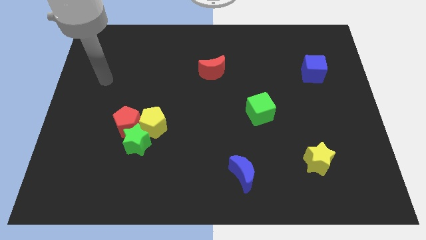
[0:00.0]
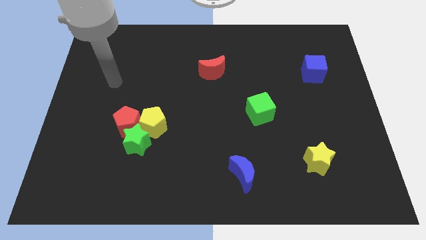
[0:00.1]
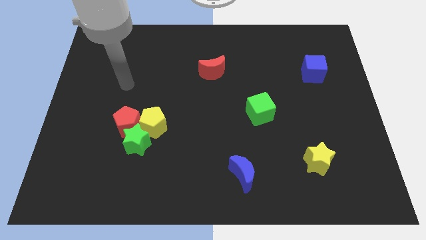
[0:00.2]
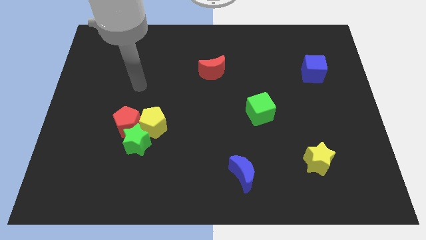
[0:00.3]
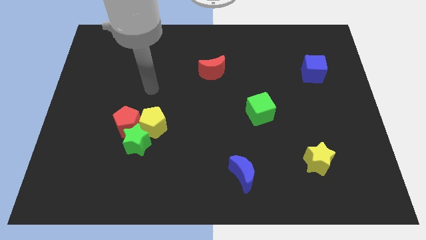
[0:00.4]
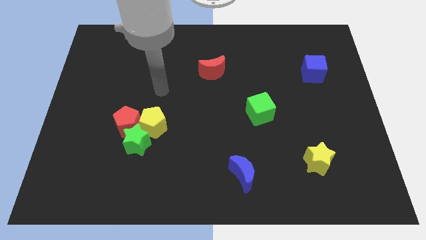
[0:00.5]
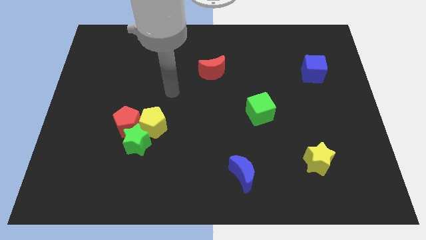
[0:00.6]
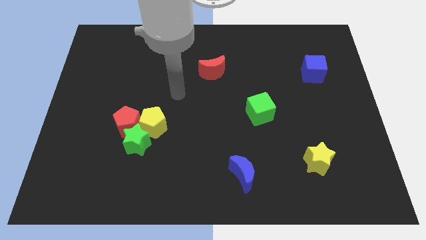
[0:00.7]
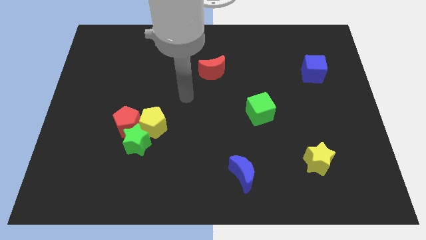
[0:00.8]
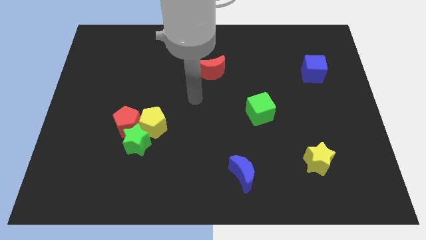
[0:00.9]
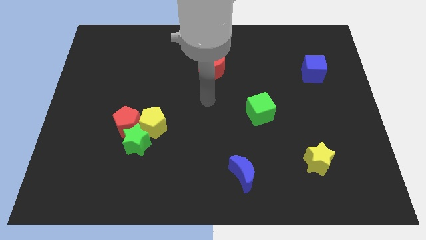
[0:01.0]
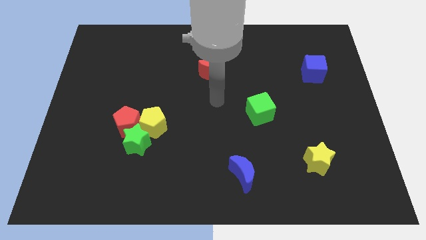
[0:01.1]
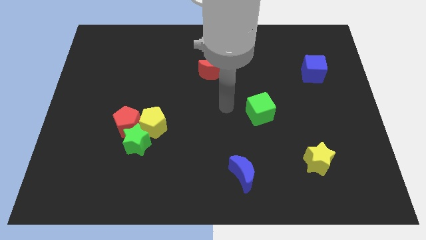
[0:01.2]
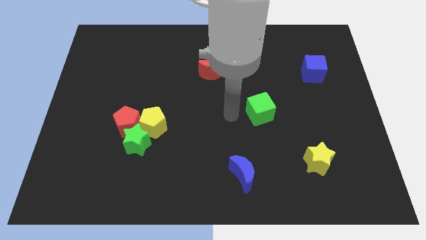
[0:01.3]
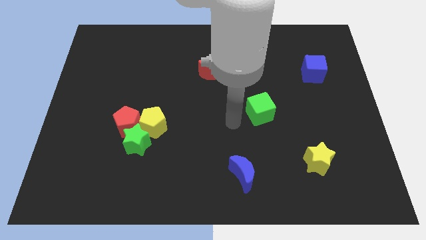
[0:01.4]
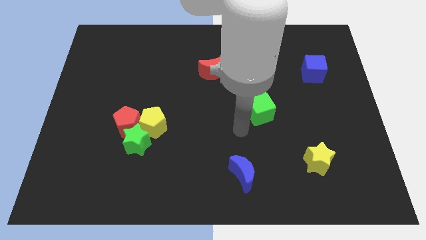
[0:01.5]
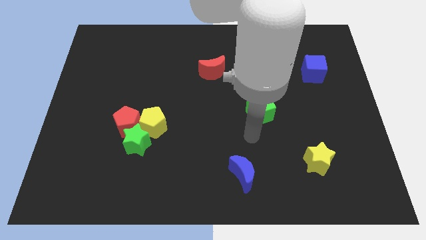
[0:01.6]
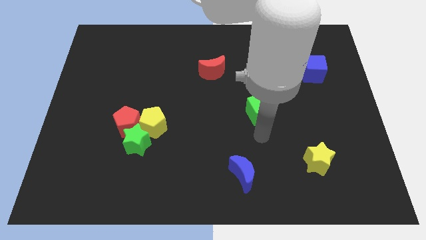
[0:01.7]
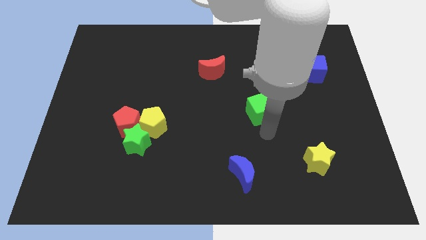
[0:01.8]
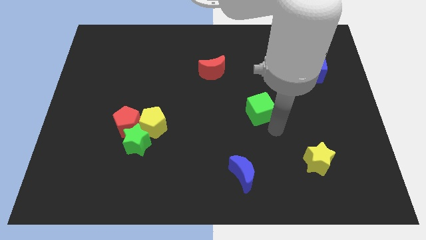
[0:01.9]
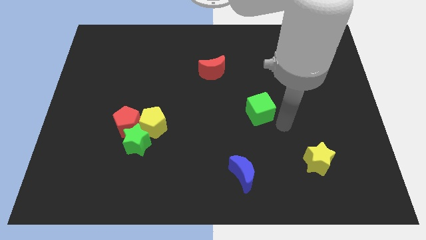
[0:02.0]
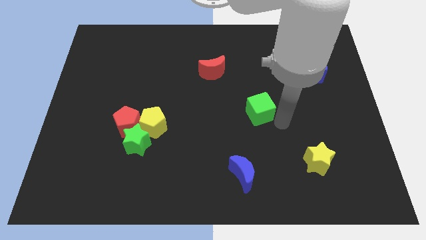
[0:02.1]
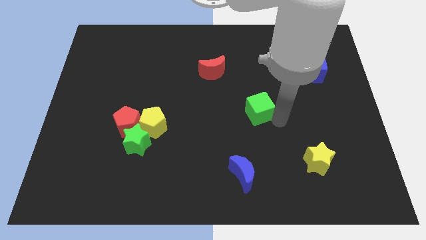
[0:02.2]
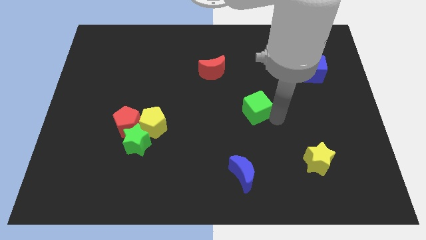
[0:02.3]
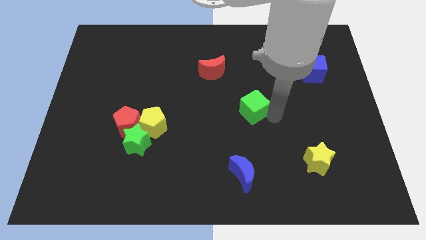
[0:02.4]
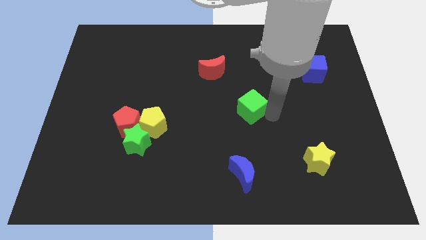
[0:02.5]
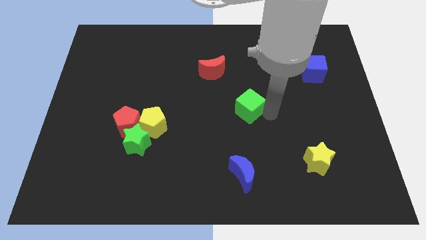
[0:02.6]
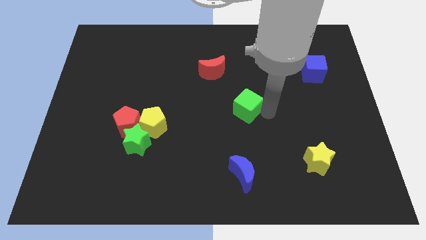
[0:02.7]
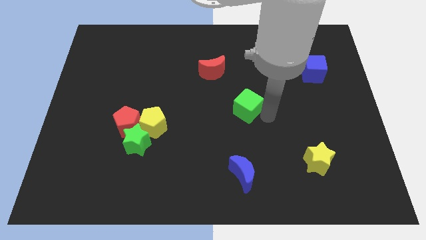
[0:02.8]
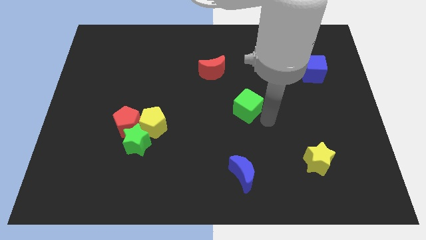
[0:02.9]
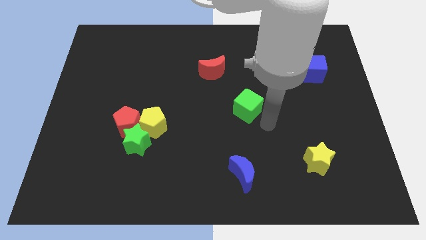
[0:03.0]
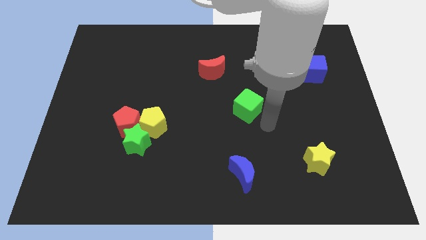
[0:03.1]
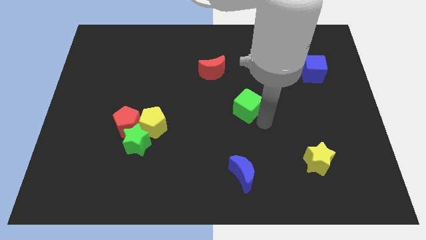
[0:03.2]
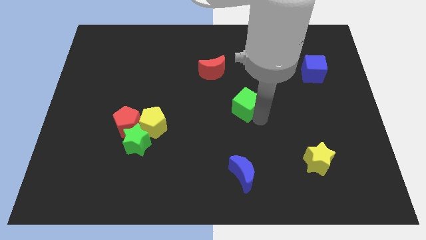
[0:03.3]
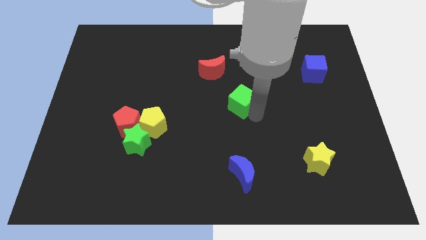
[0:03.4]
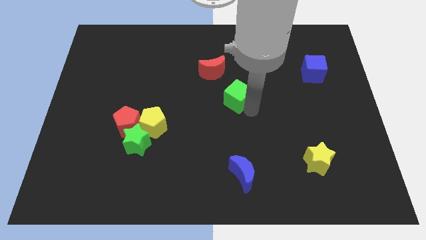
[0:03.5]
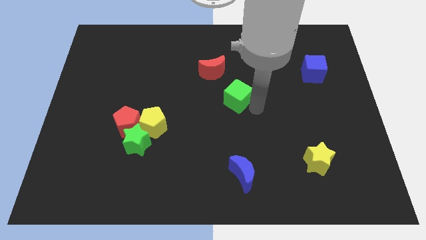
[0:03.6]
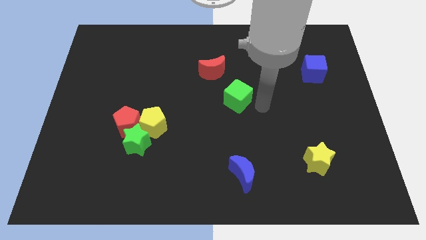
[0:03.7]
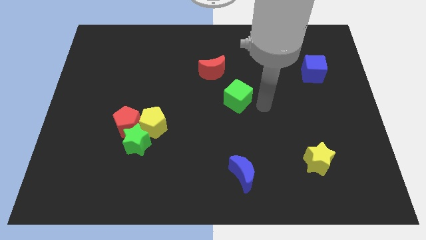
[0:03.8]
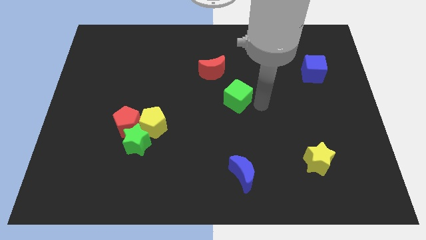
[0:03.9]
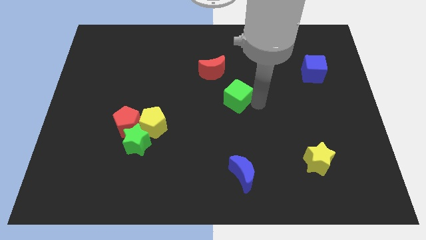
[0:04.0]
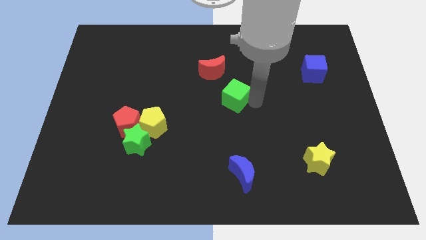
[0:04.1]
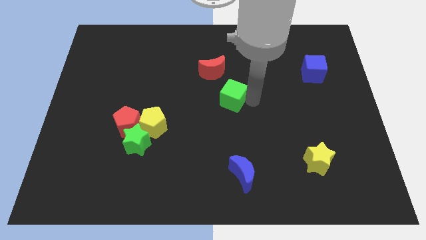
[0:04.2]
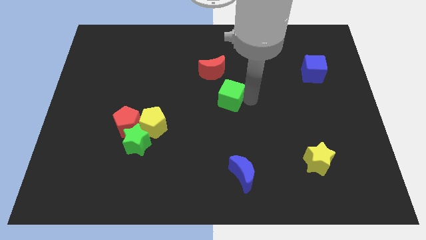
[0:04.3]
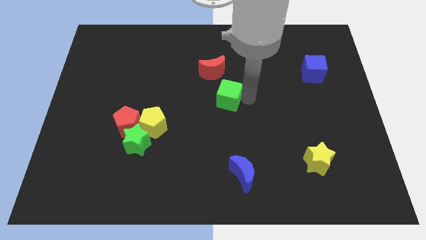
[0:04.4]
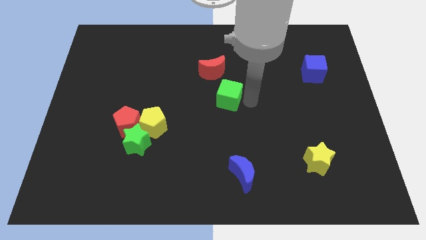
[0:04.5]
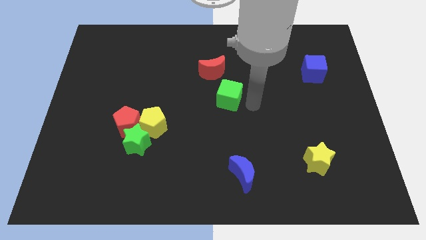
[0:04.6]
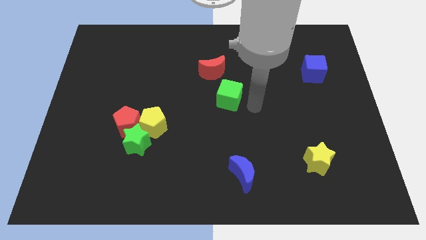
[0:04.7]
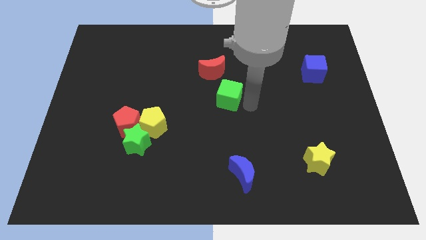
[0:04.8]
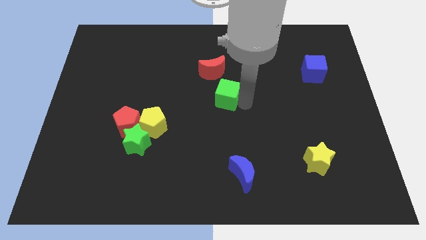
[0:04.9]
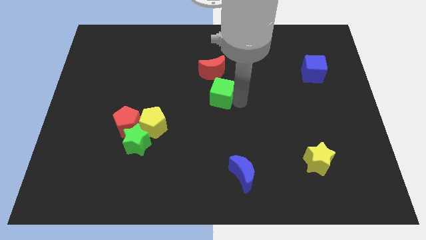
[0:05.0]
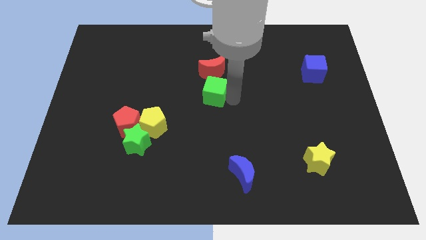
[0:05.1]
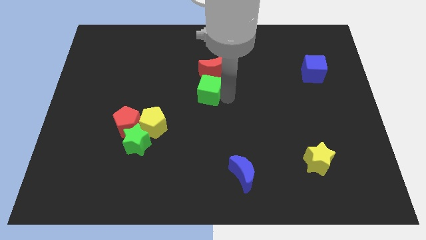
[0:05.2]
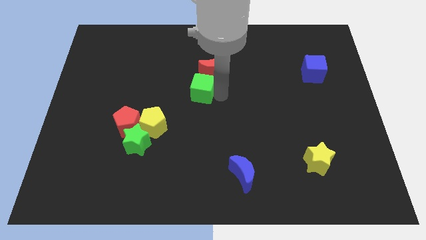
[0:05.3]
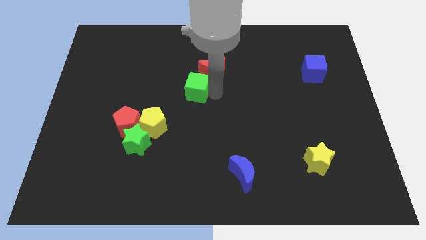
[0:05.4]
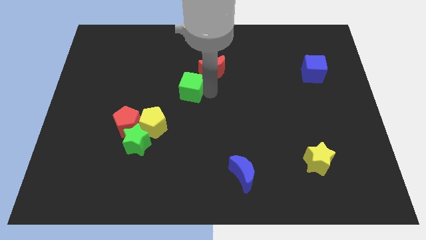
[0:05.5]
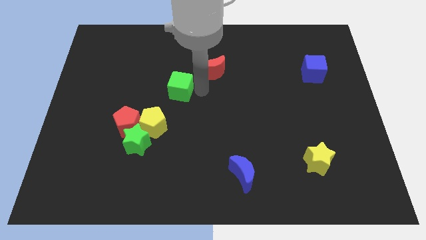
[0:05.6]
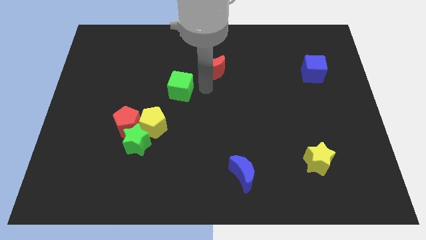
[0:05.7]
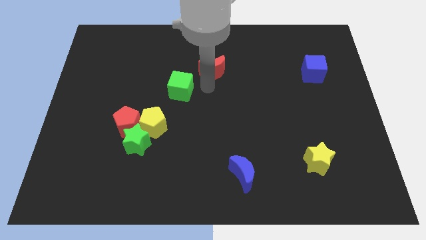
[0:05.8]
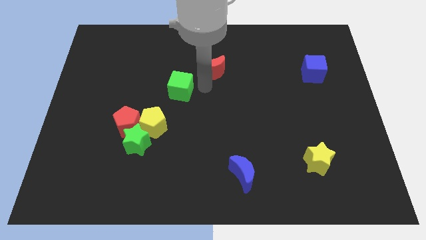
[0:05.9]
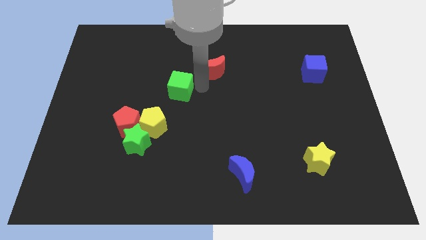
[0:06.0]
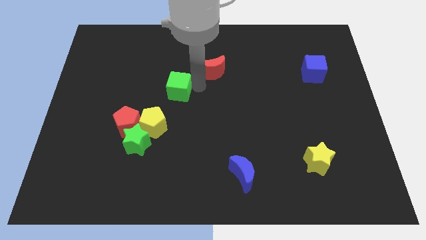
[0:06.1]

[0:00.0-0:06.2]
slide the green cube to the top of the yellow pentagon
